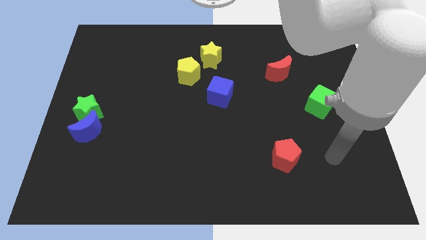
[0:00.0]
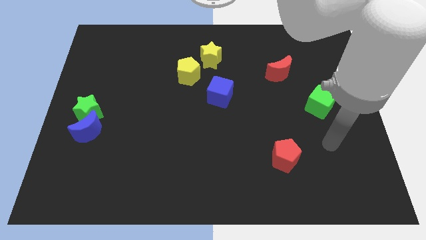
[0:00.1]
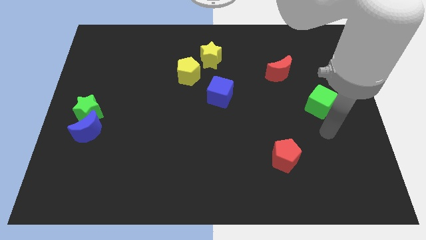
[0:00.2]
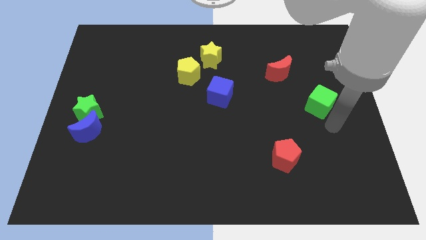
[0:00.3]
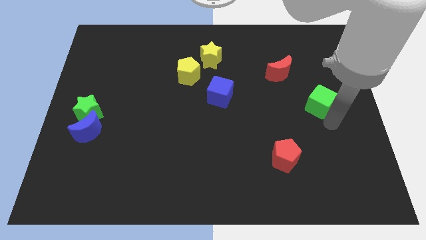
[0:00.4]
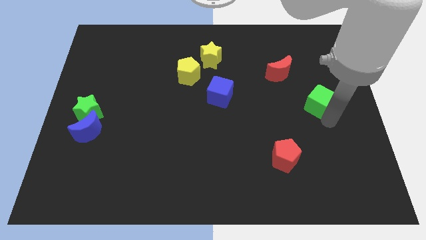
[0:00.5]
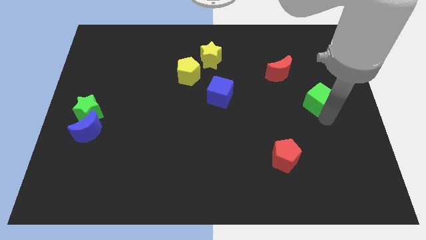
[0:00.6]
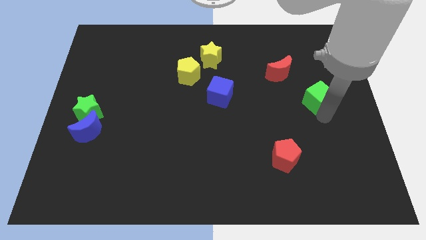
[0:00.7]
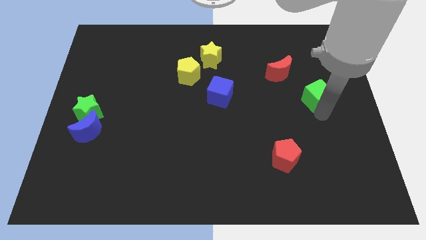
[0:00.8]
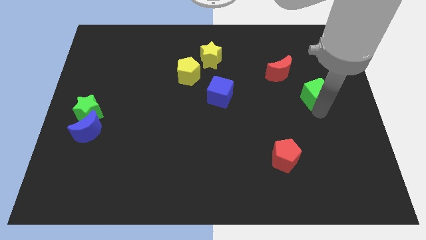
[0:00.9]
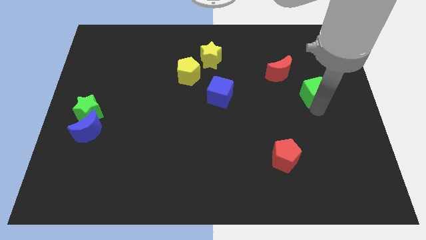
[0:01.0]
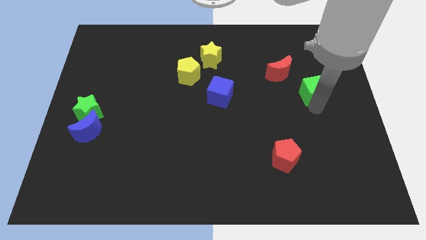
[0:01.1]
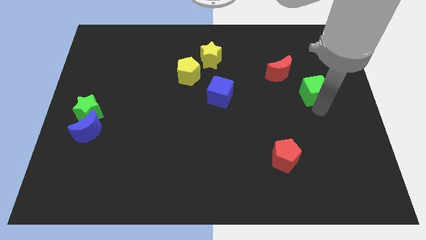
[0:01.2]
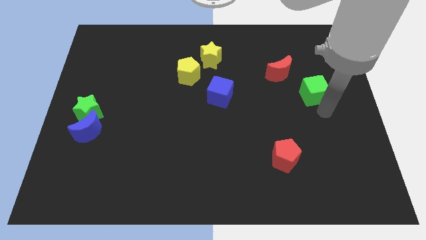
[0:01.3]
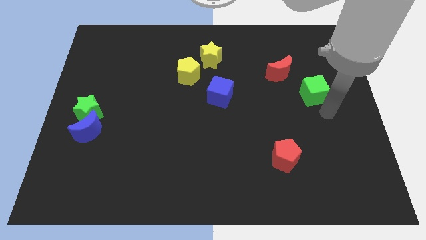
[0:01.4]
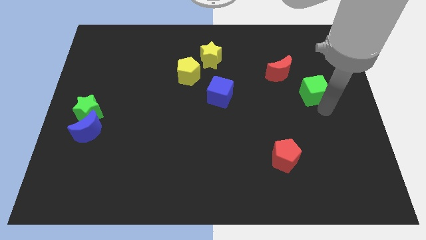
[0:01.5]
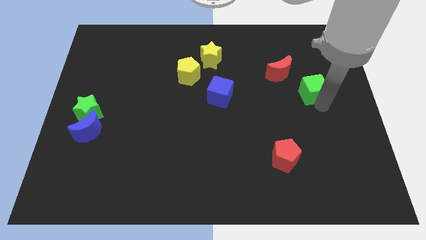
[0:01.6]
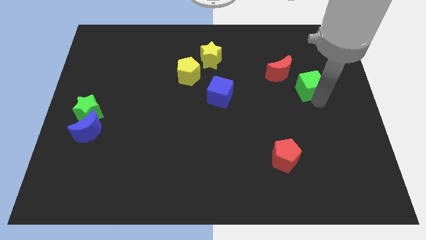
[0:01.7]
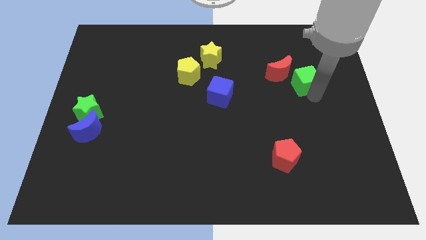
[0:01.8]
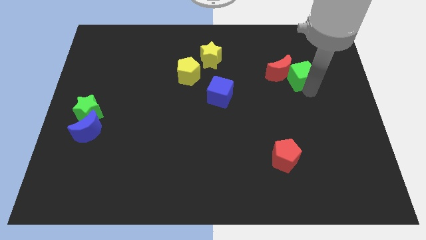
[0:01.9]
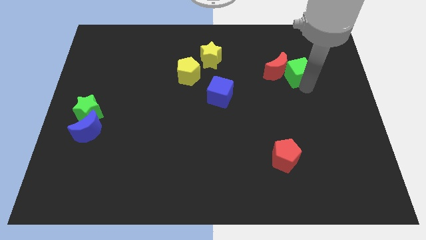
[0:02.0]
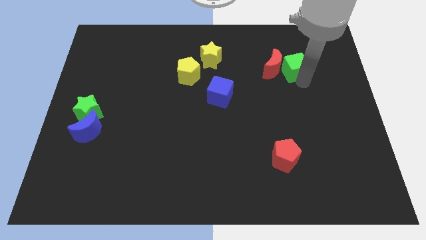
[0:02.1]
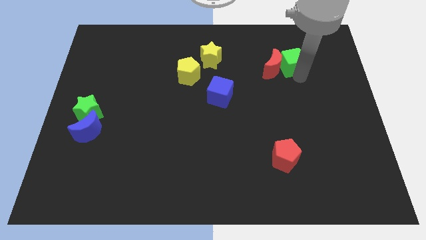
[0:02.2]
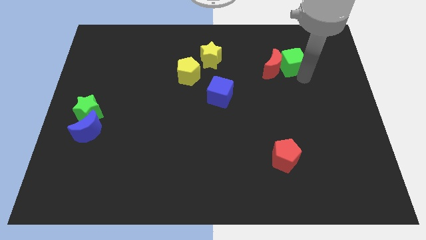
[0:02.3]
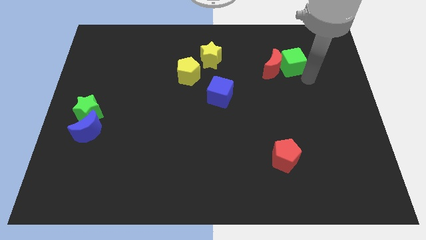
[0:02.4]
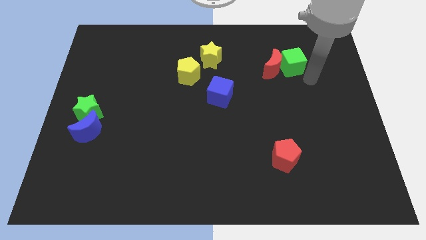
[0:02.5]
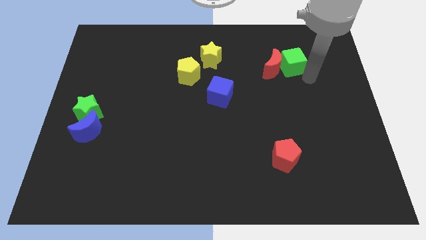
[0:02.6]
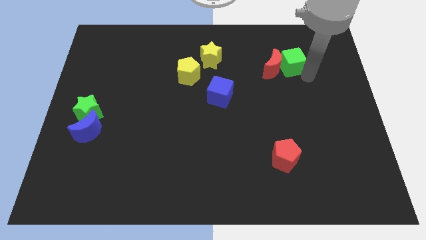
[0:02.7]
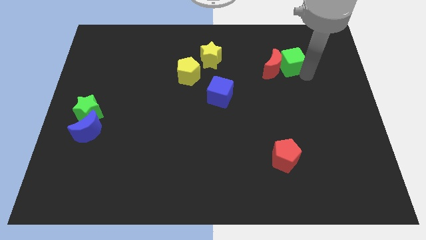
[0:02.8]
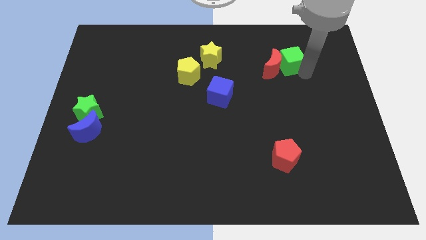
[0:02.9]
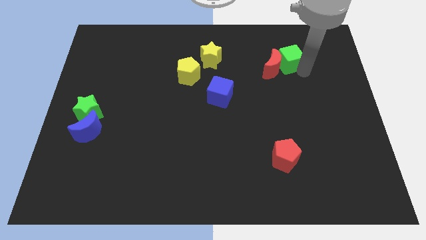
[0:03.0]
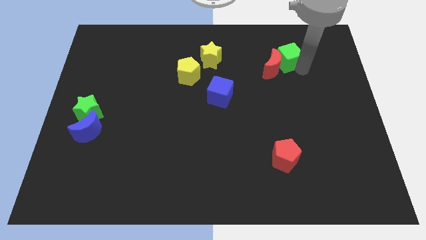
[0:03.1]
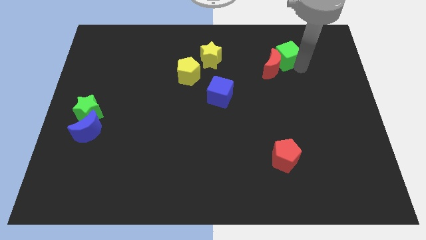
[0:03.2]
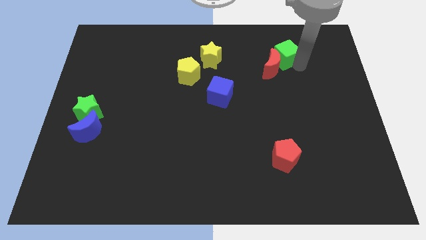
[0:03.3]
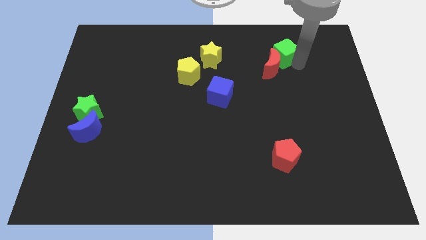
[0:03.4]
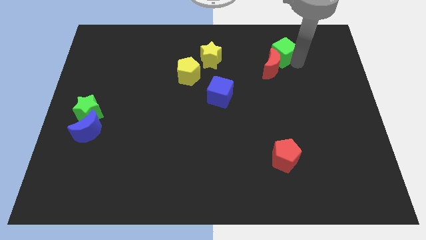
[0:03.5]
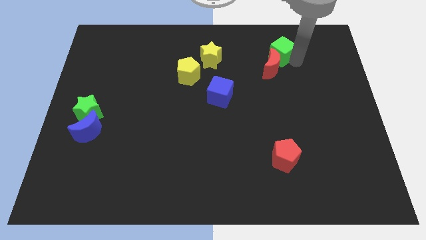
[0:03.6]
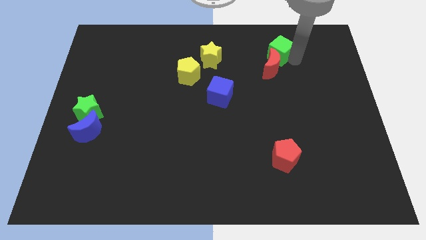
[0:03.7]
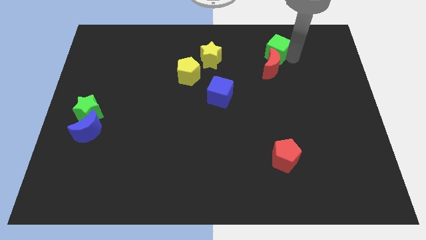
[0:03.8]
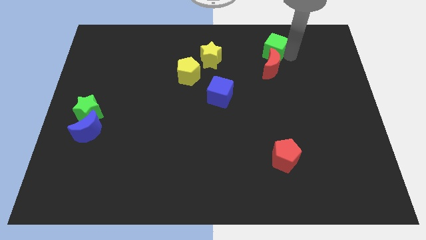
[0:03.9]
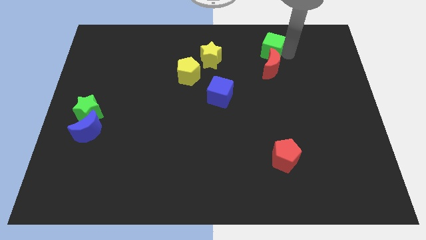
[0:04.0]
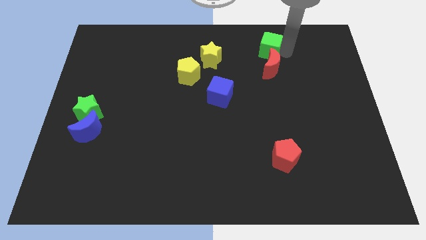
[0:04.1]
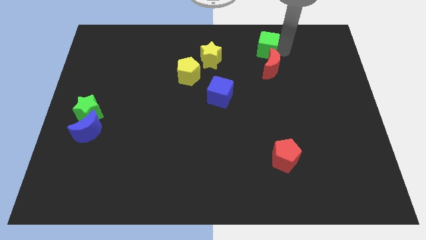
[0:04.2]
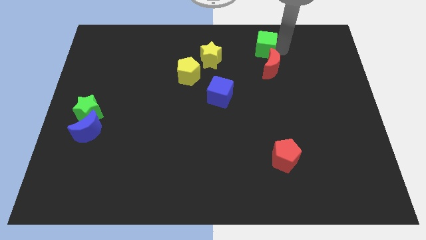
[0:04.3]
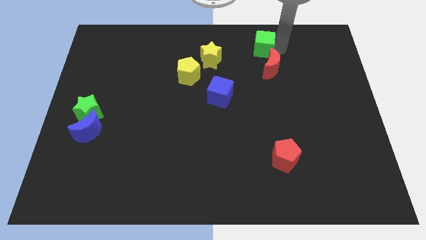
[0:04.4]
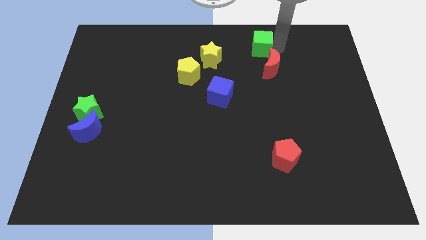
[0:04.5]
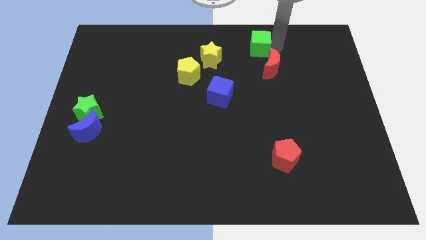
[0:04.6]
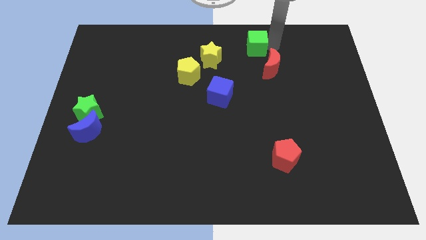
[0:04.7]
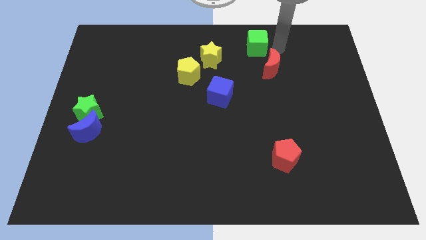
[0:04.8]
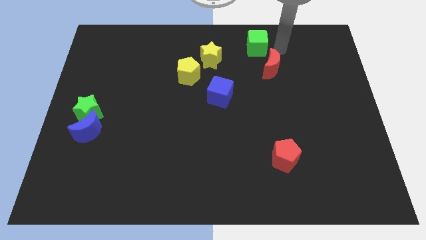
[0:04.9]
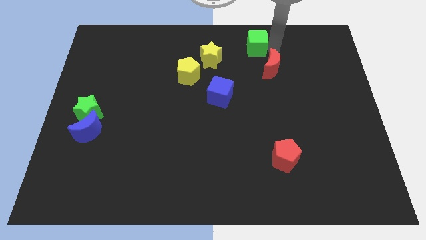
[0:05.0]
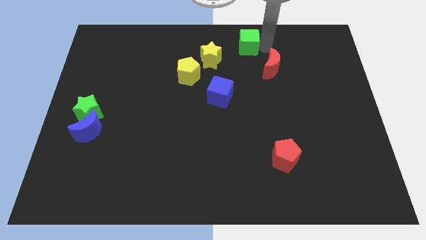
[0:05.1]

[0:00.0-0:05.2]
push the green cube to the top

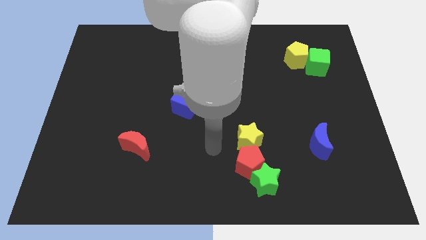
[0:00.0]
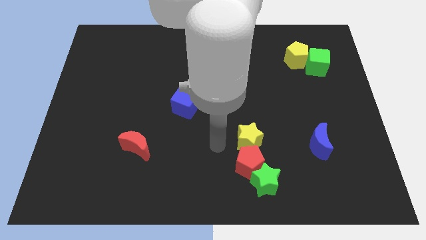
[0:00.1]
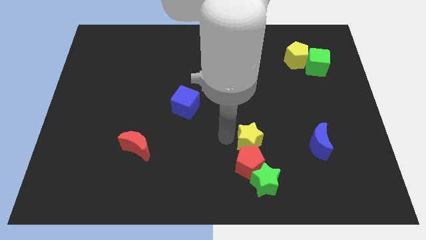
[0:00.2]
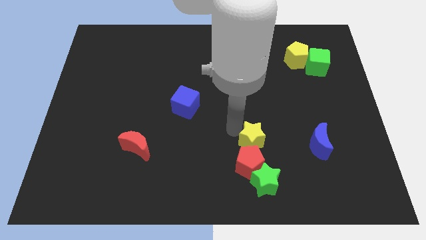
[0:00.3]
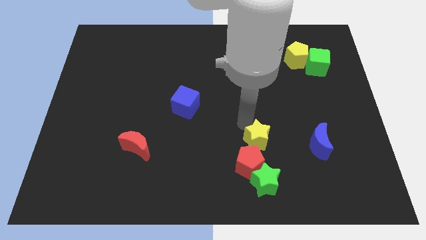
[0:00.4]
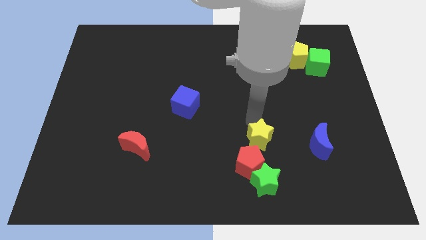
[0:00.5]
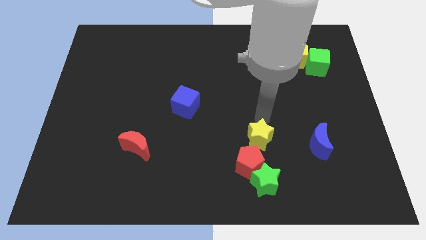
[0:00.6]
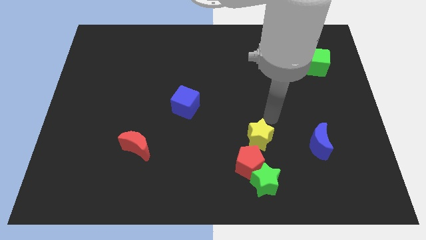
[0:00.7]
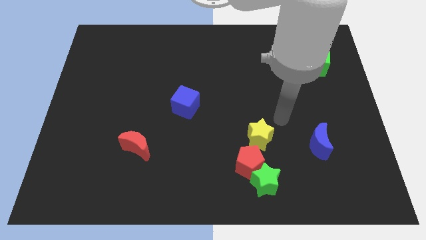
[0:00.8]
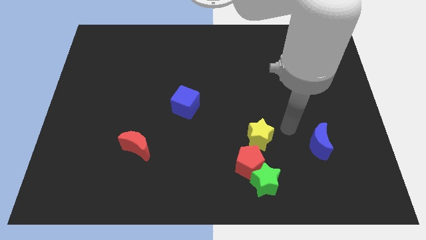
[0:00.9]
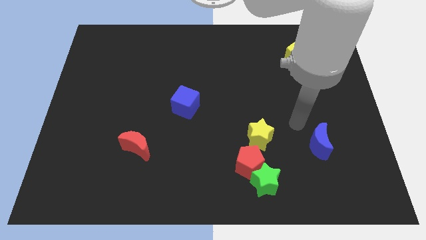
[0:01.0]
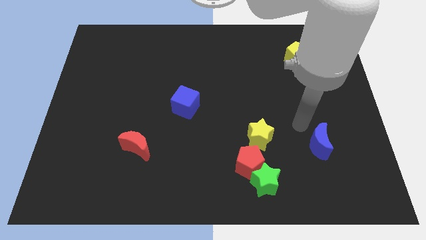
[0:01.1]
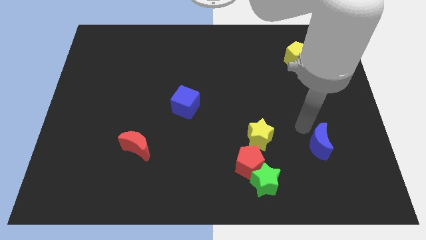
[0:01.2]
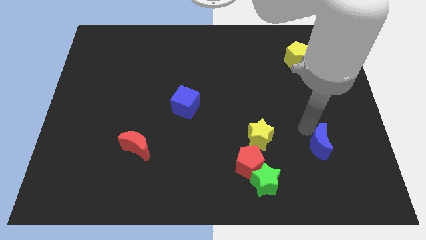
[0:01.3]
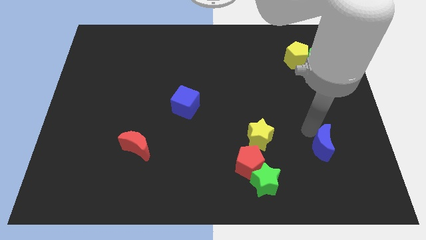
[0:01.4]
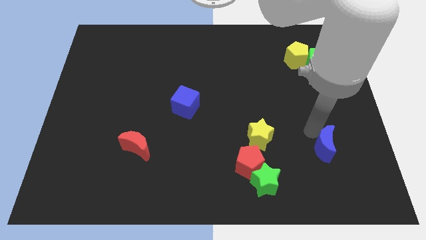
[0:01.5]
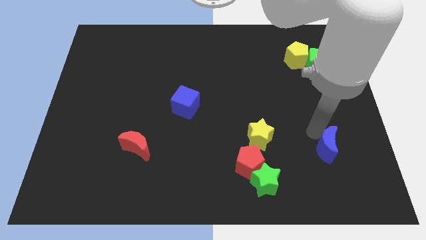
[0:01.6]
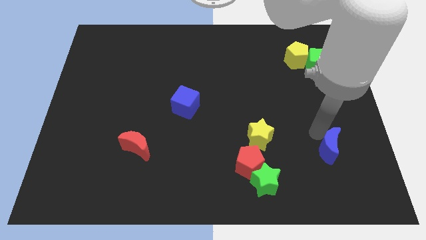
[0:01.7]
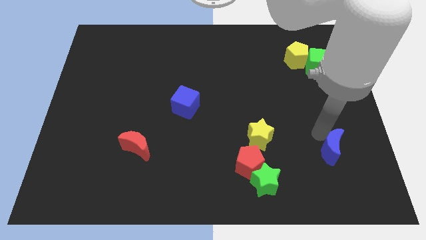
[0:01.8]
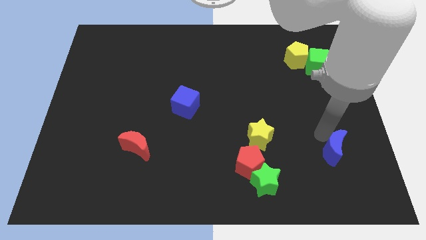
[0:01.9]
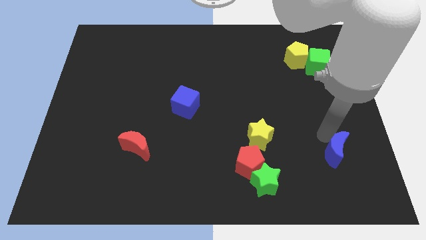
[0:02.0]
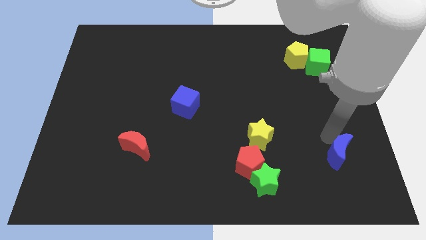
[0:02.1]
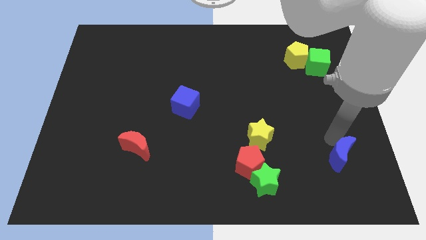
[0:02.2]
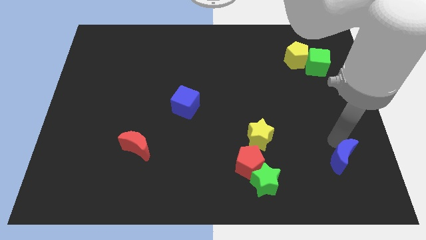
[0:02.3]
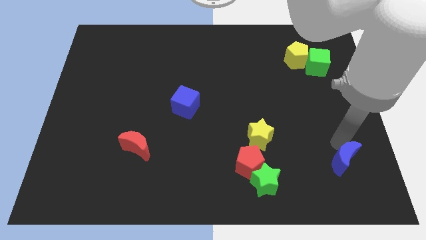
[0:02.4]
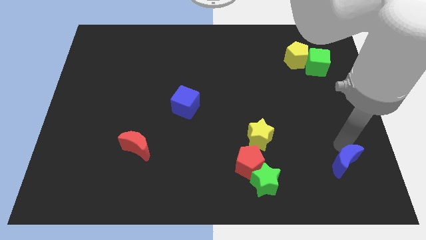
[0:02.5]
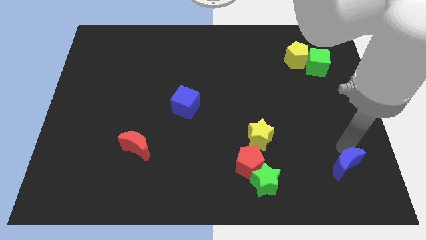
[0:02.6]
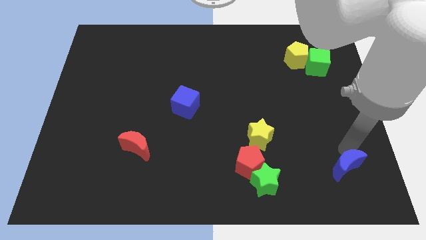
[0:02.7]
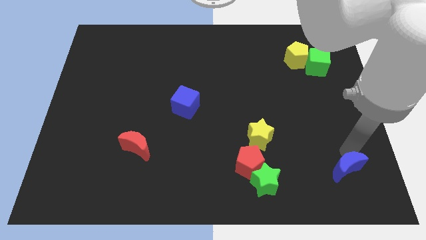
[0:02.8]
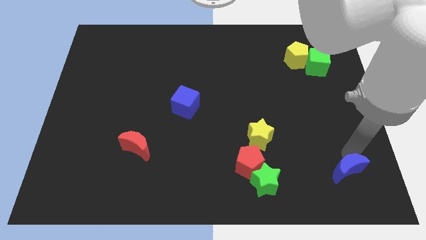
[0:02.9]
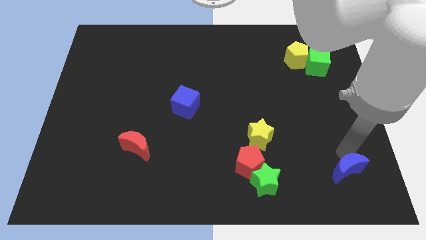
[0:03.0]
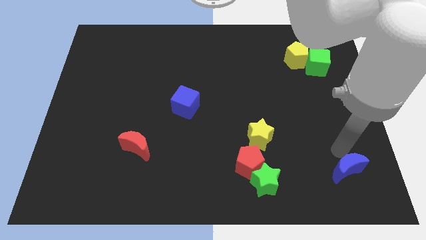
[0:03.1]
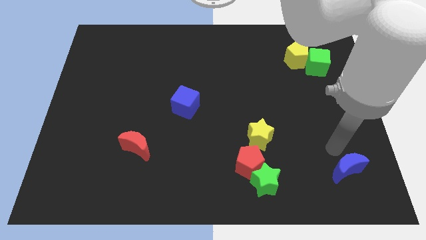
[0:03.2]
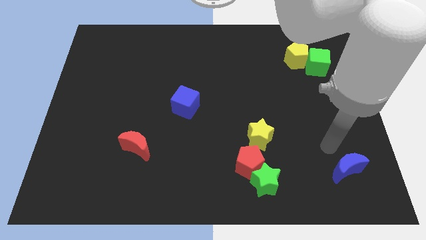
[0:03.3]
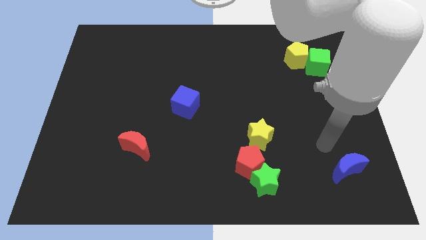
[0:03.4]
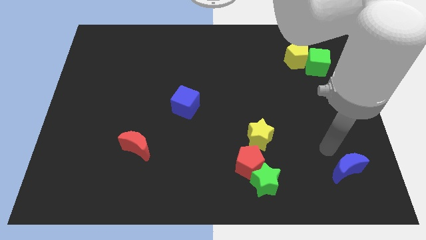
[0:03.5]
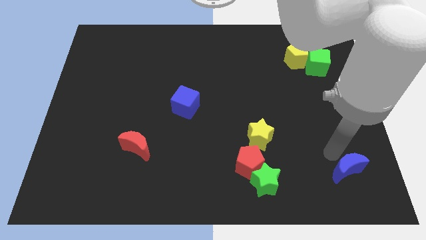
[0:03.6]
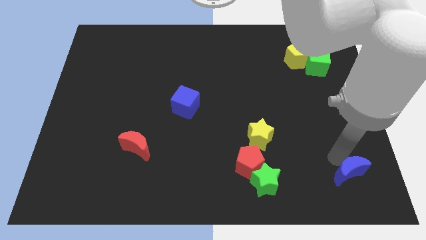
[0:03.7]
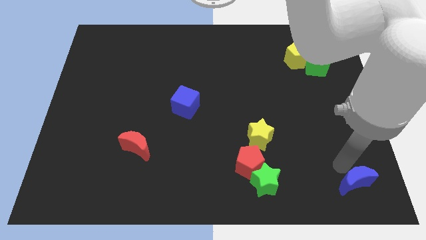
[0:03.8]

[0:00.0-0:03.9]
slide the blue moon to the bottom right
